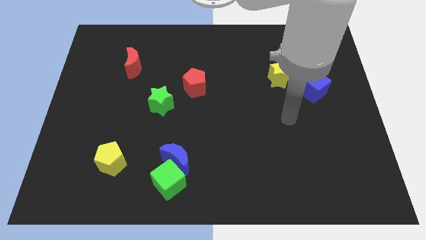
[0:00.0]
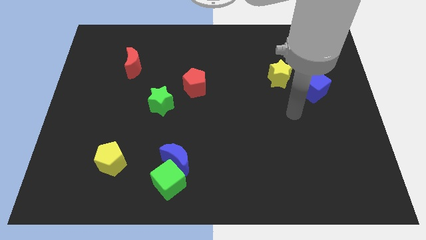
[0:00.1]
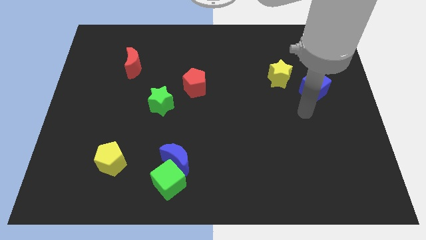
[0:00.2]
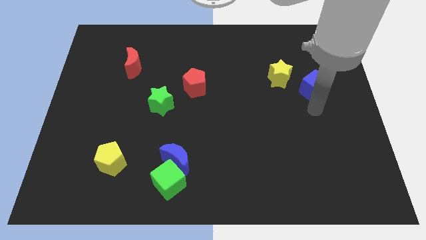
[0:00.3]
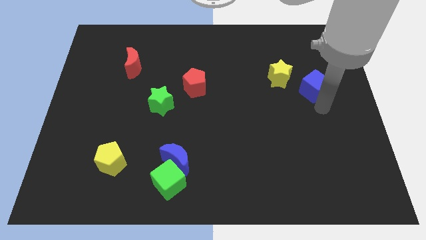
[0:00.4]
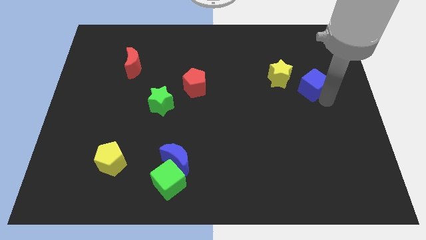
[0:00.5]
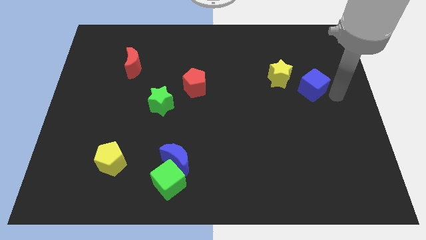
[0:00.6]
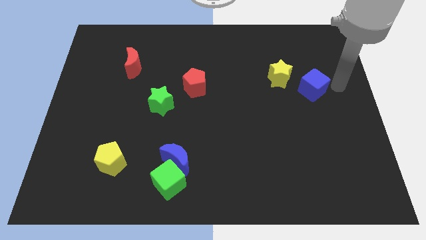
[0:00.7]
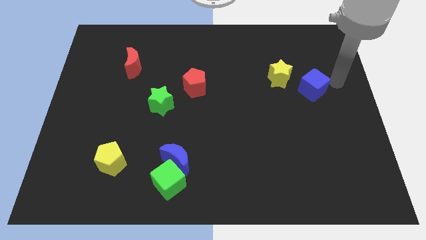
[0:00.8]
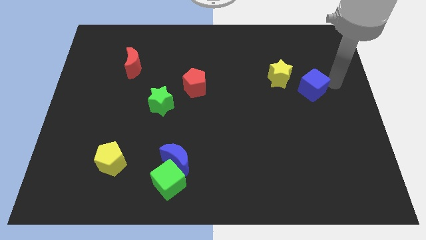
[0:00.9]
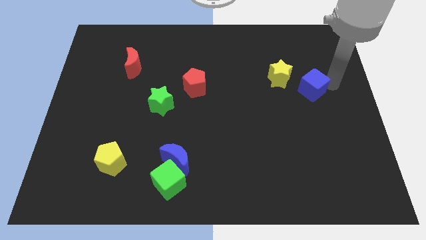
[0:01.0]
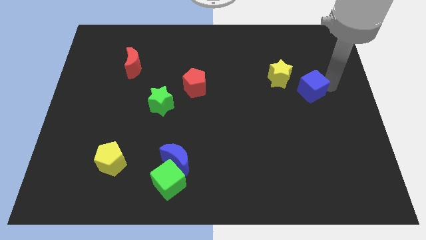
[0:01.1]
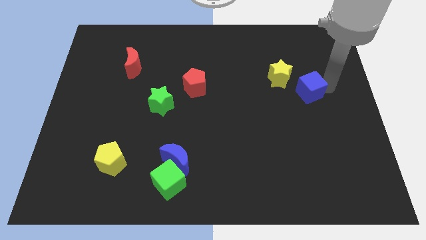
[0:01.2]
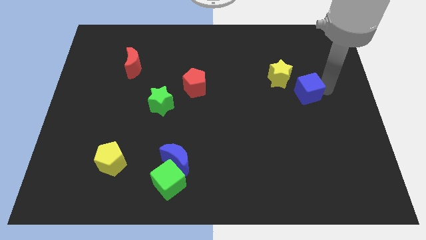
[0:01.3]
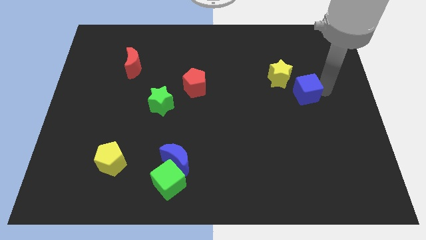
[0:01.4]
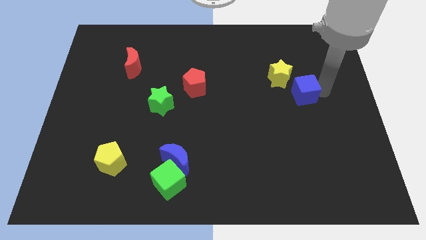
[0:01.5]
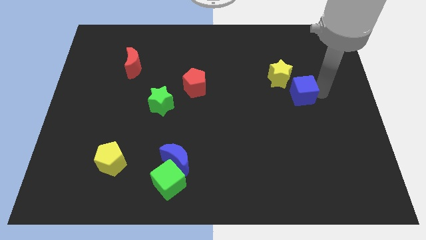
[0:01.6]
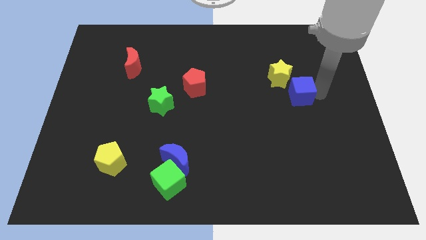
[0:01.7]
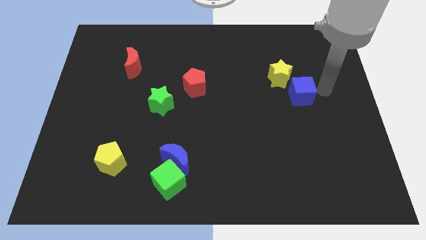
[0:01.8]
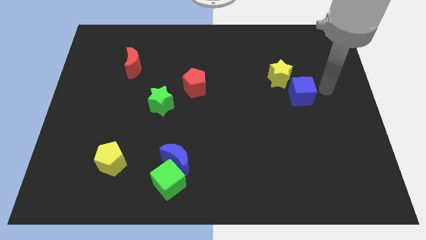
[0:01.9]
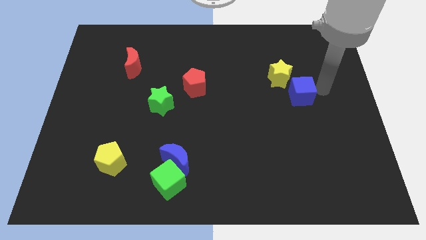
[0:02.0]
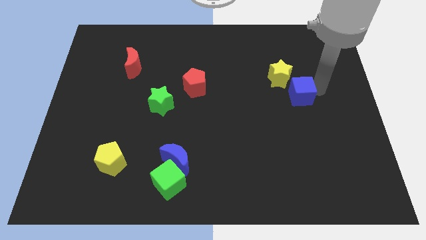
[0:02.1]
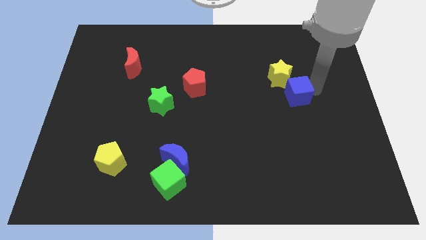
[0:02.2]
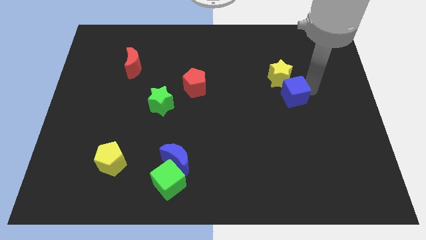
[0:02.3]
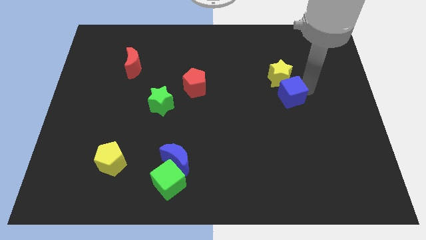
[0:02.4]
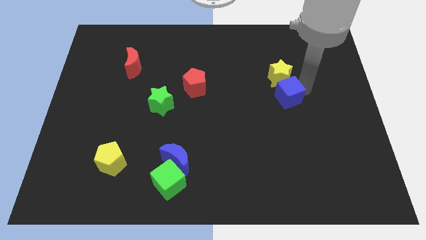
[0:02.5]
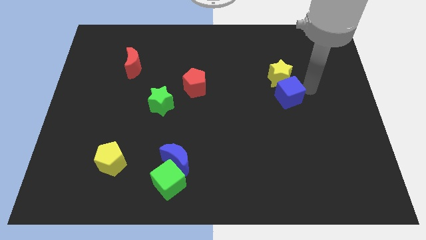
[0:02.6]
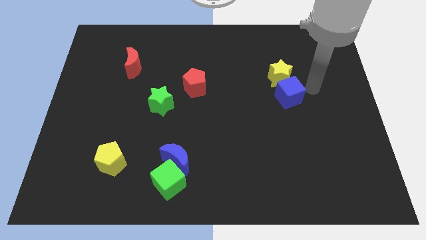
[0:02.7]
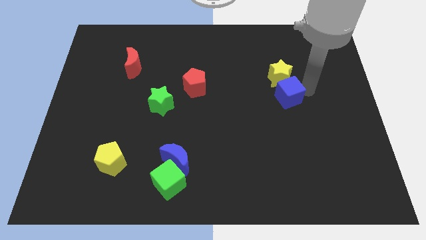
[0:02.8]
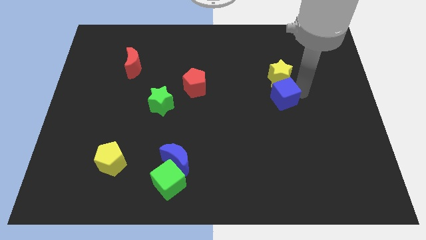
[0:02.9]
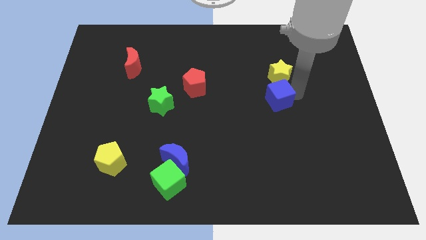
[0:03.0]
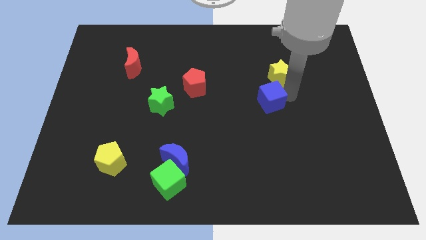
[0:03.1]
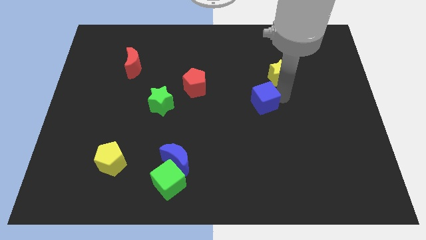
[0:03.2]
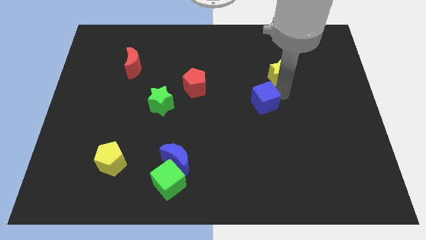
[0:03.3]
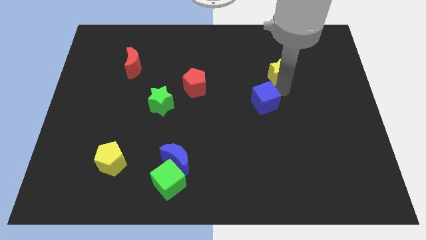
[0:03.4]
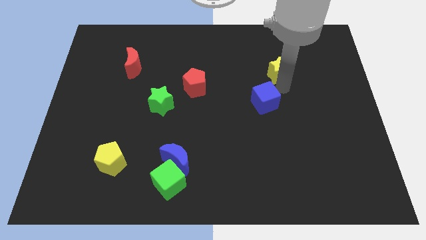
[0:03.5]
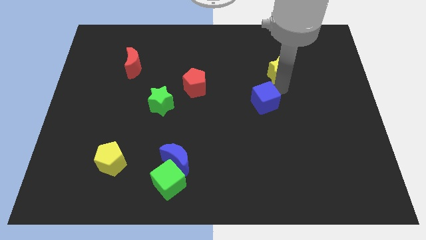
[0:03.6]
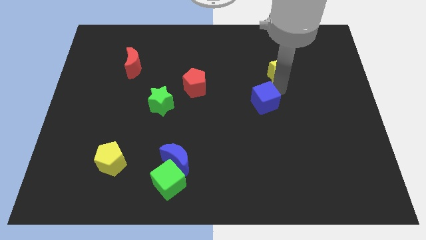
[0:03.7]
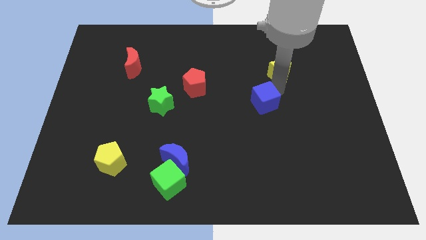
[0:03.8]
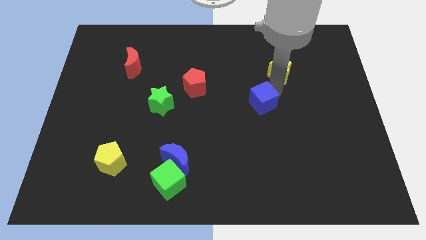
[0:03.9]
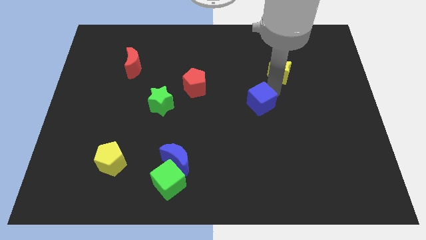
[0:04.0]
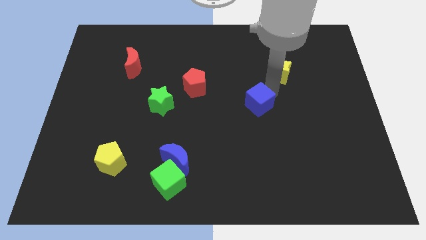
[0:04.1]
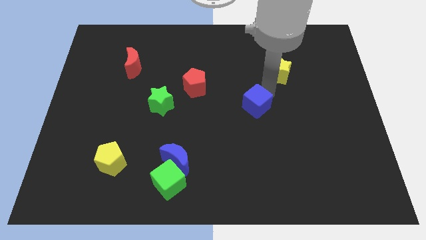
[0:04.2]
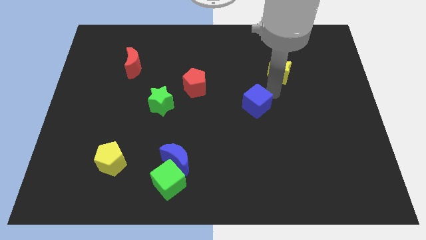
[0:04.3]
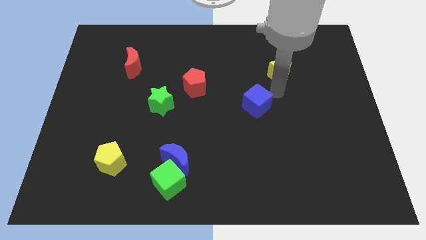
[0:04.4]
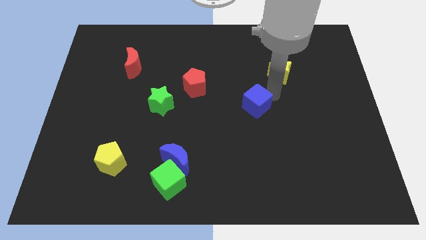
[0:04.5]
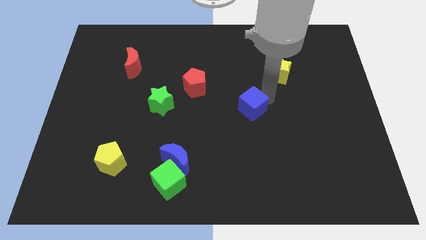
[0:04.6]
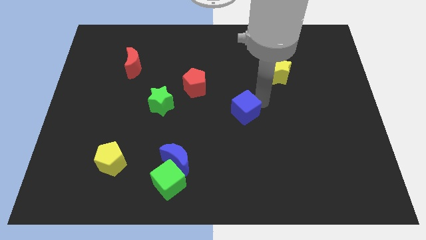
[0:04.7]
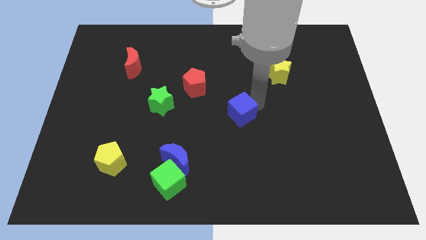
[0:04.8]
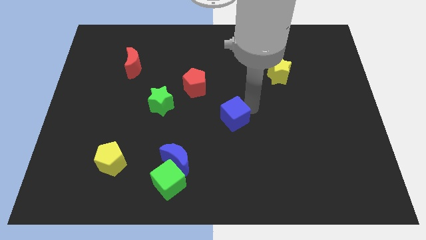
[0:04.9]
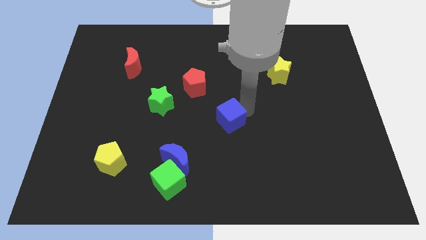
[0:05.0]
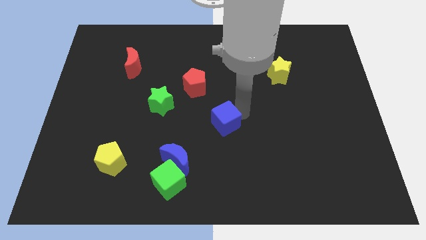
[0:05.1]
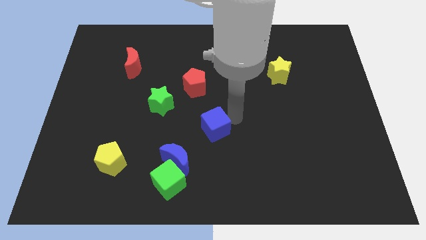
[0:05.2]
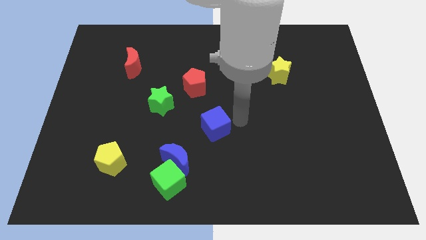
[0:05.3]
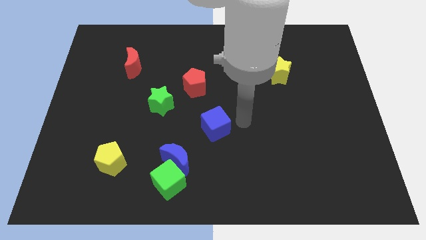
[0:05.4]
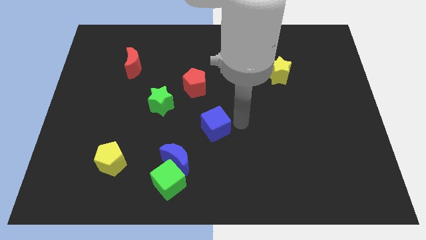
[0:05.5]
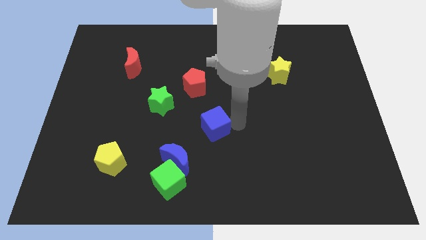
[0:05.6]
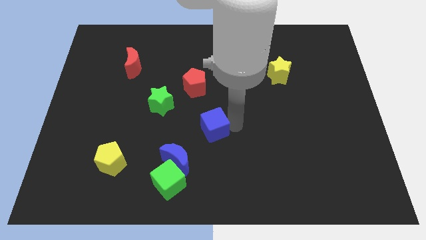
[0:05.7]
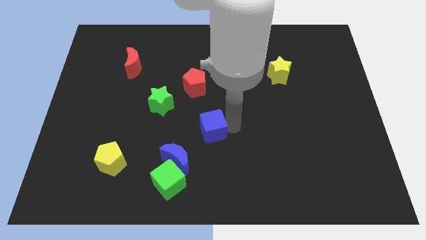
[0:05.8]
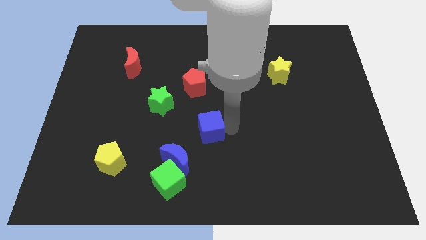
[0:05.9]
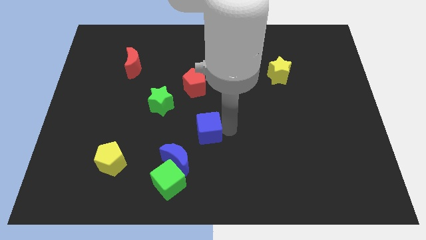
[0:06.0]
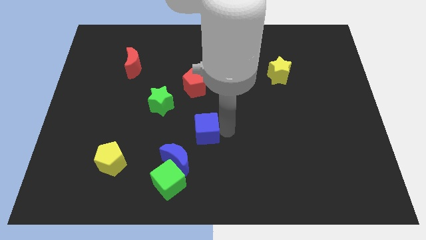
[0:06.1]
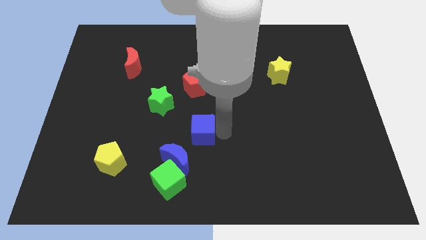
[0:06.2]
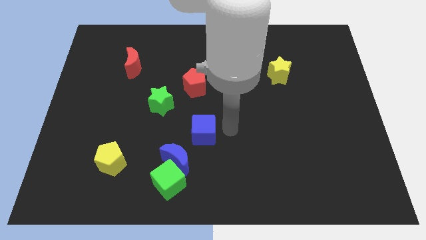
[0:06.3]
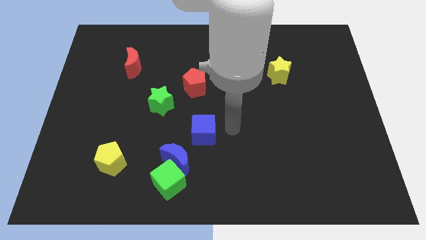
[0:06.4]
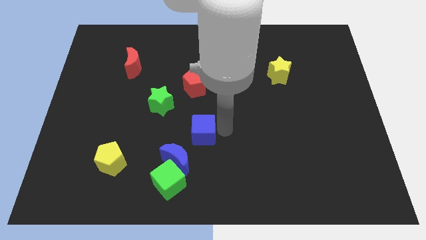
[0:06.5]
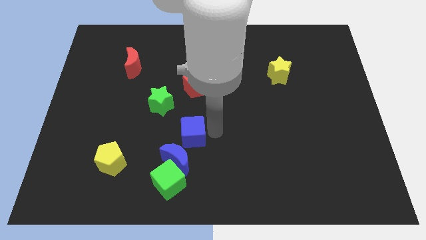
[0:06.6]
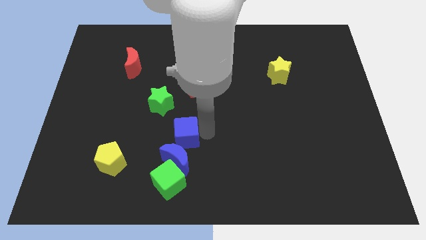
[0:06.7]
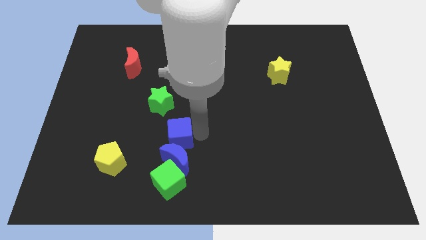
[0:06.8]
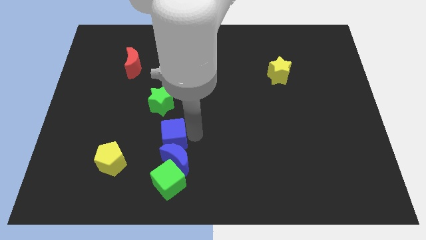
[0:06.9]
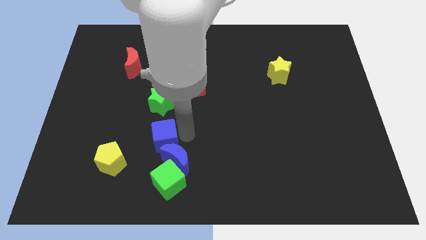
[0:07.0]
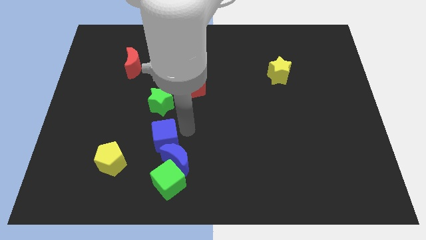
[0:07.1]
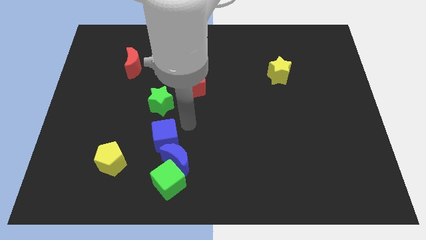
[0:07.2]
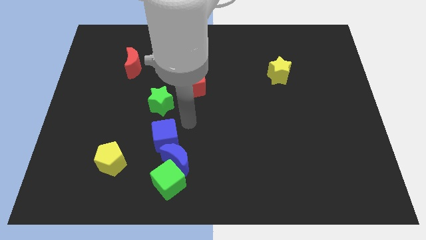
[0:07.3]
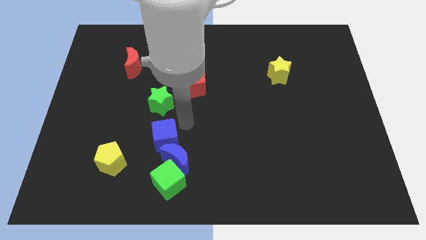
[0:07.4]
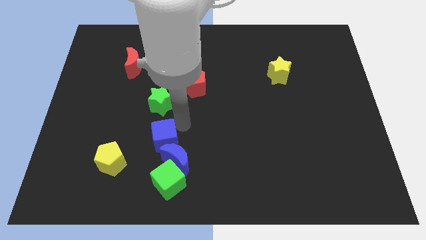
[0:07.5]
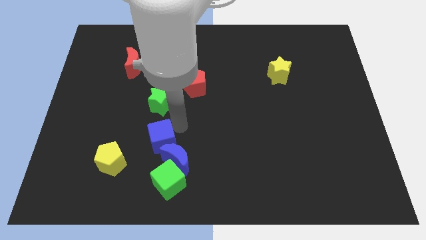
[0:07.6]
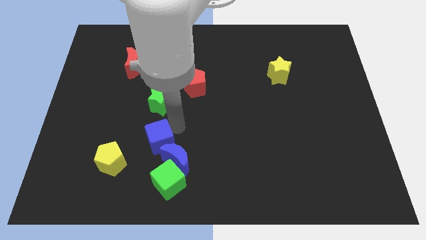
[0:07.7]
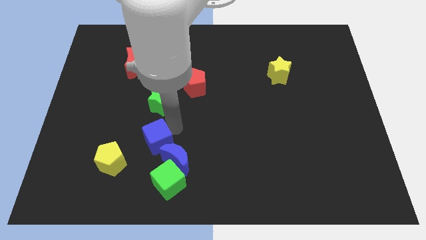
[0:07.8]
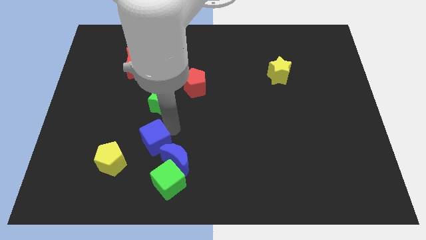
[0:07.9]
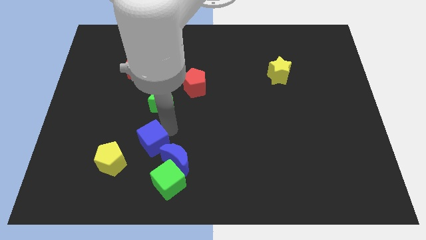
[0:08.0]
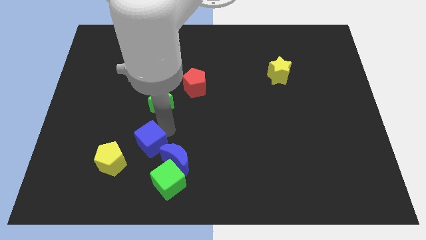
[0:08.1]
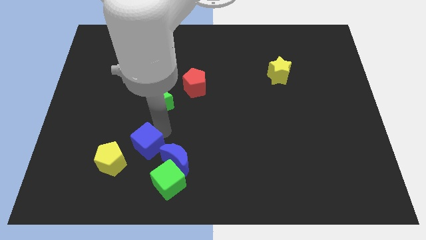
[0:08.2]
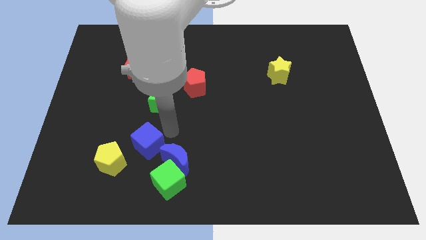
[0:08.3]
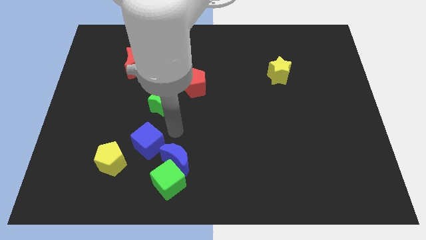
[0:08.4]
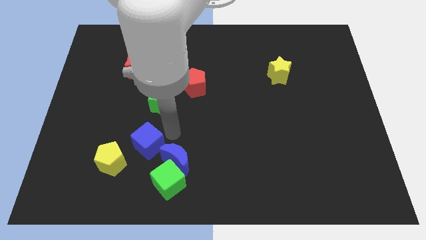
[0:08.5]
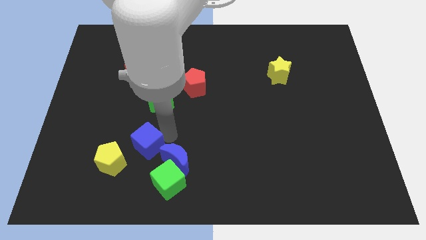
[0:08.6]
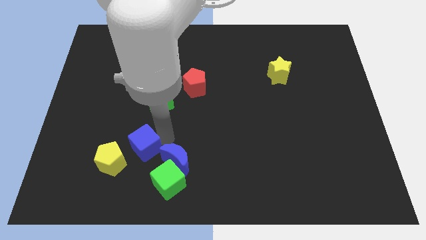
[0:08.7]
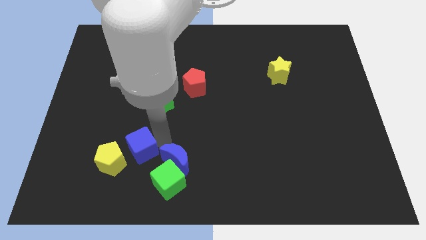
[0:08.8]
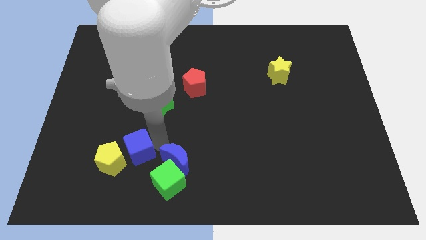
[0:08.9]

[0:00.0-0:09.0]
put the blue cube towards the yellow pentagon
